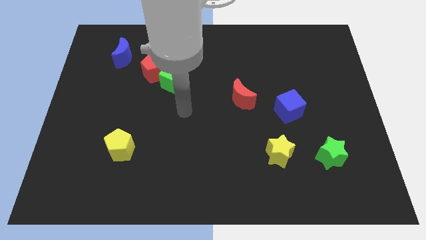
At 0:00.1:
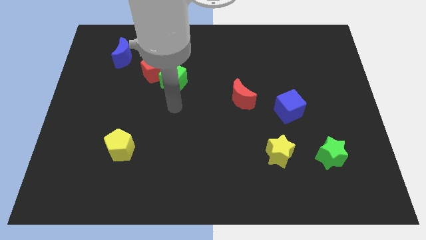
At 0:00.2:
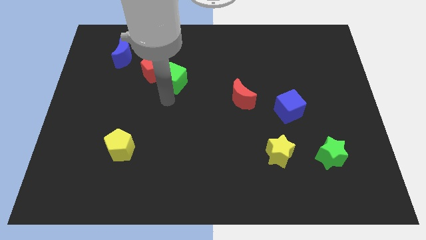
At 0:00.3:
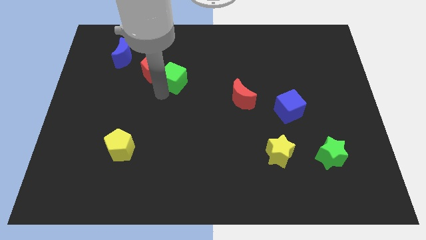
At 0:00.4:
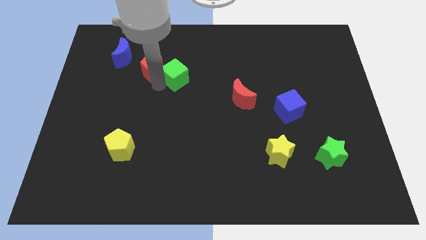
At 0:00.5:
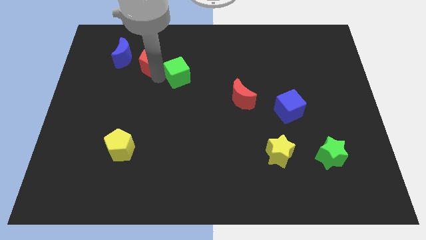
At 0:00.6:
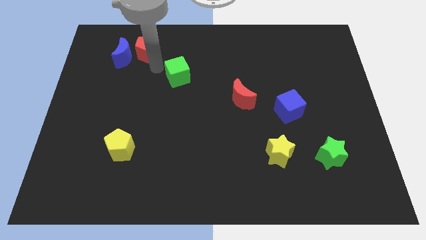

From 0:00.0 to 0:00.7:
move the green cube away from the red pentagon

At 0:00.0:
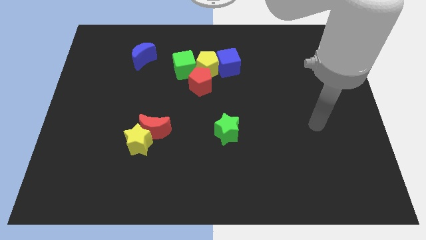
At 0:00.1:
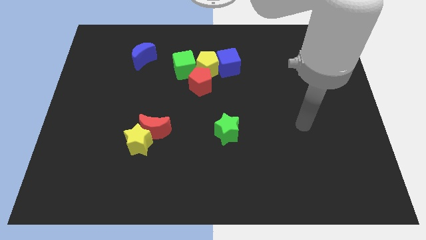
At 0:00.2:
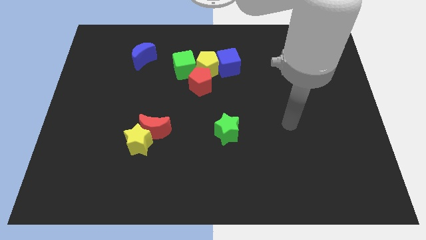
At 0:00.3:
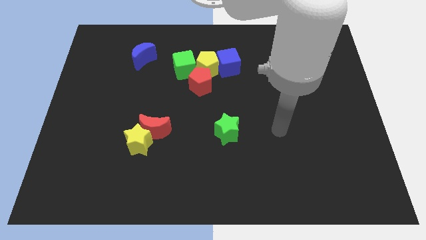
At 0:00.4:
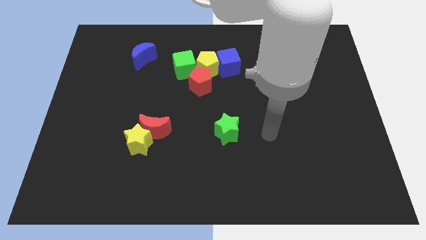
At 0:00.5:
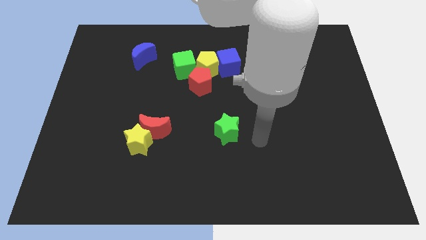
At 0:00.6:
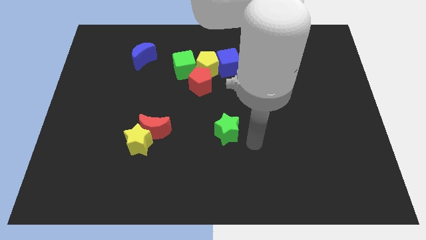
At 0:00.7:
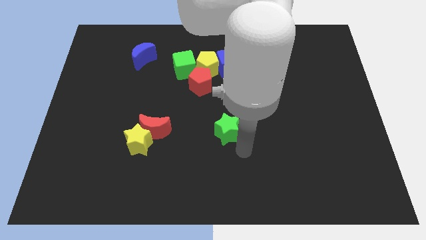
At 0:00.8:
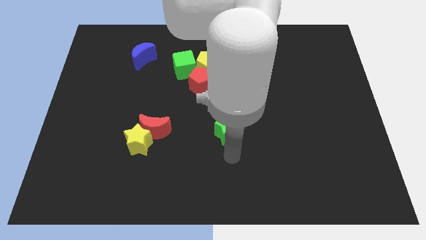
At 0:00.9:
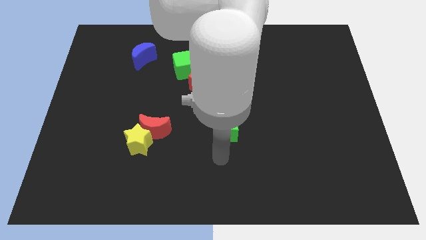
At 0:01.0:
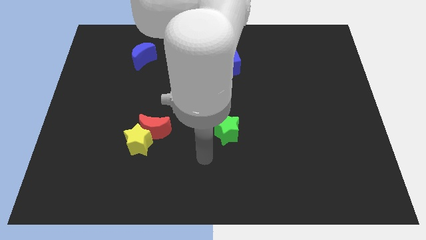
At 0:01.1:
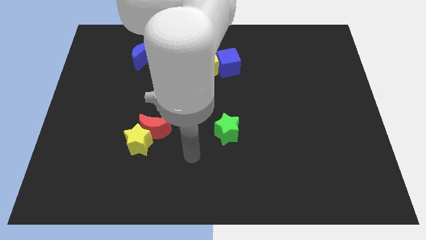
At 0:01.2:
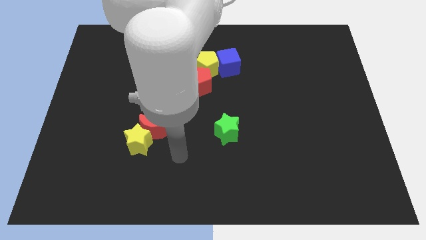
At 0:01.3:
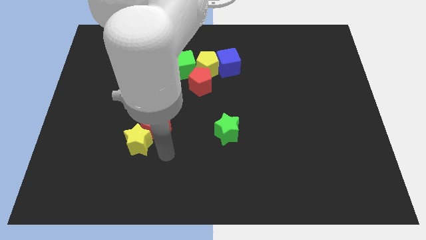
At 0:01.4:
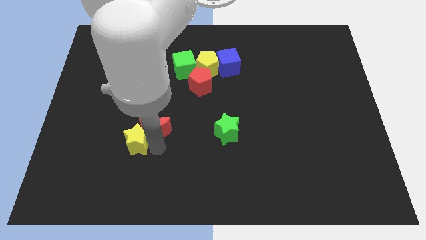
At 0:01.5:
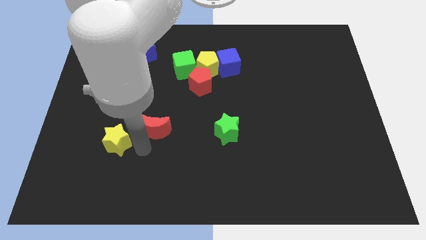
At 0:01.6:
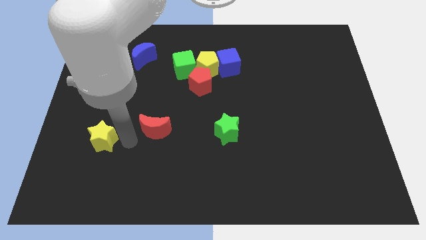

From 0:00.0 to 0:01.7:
separate the red moon from the yellow star

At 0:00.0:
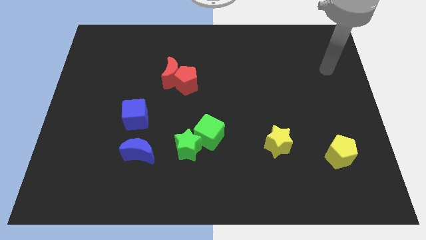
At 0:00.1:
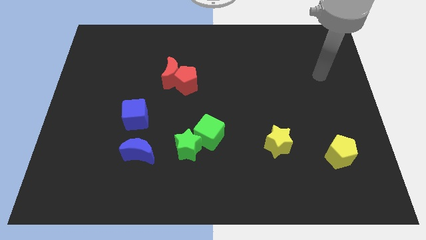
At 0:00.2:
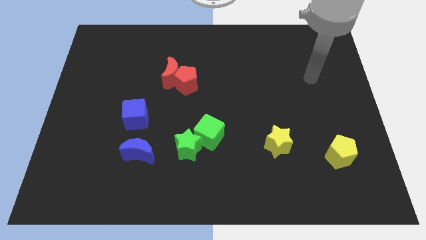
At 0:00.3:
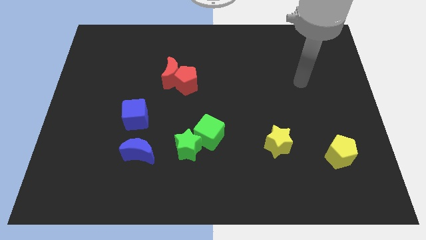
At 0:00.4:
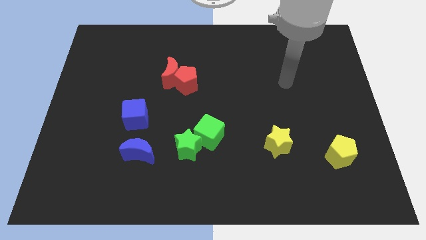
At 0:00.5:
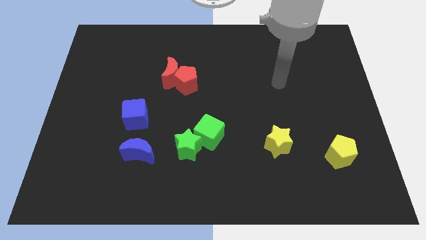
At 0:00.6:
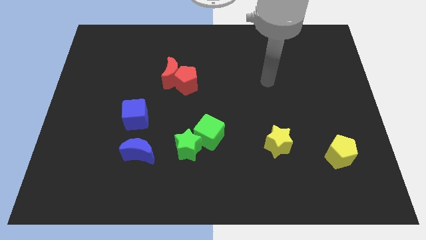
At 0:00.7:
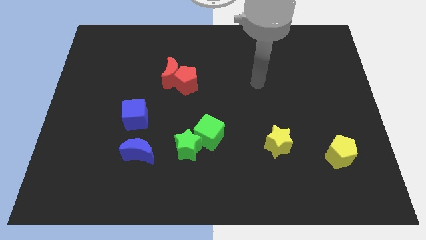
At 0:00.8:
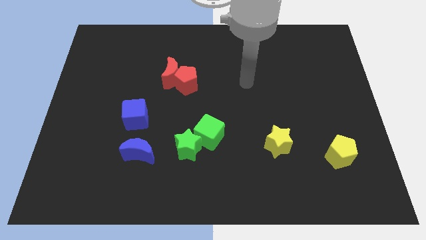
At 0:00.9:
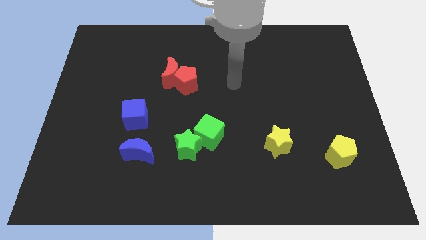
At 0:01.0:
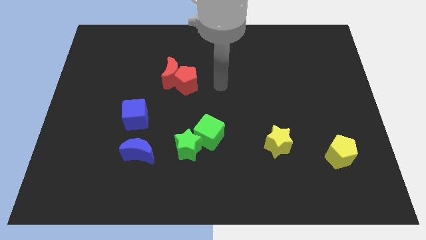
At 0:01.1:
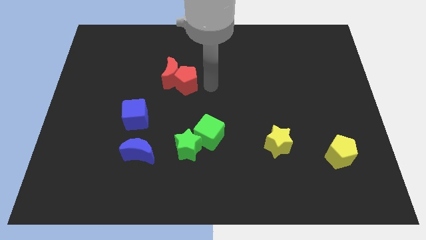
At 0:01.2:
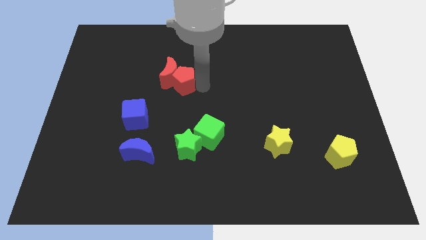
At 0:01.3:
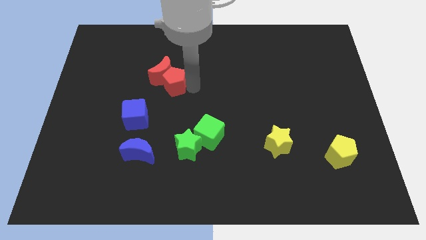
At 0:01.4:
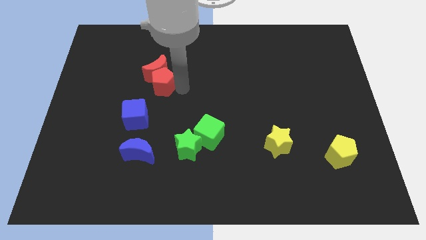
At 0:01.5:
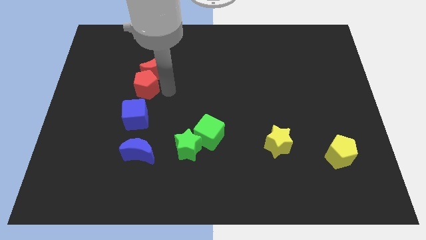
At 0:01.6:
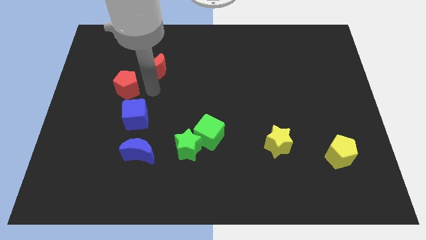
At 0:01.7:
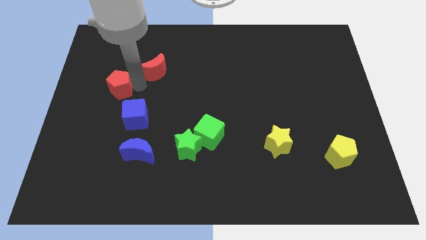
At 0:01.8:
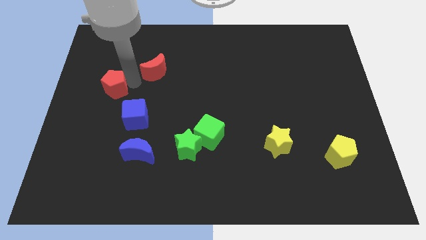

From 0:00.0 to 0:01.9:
move the red moon away from the red pentagon

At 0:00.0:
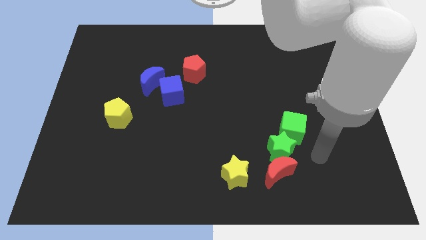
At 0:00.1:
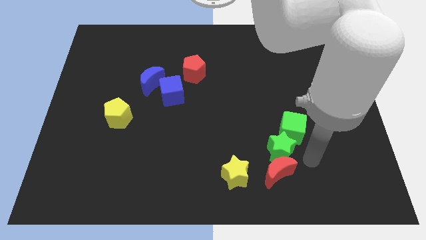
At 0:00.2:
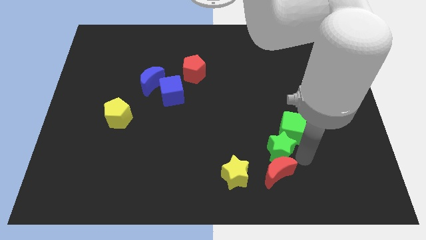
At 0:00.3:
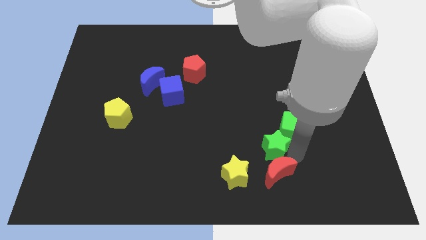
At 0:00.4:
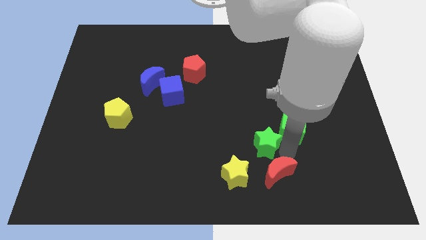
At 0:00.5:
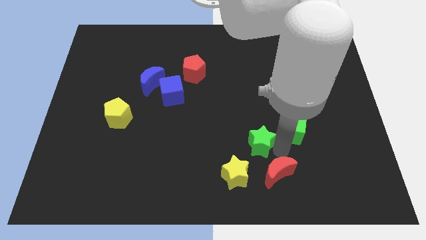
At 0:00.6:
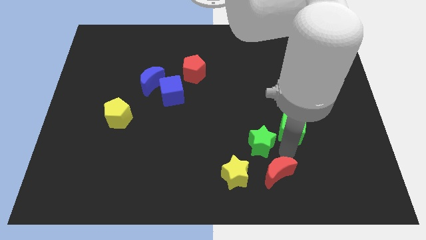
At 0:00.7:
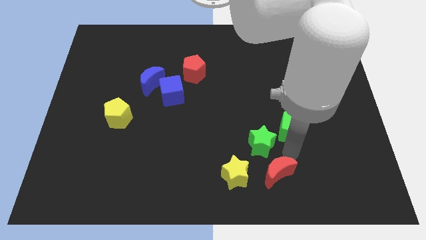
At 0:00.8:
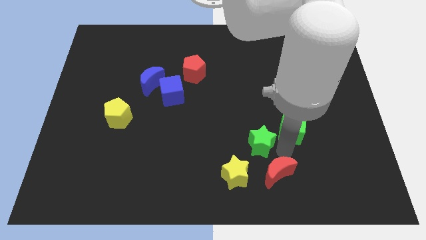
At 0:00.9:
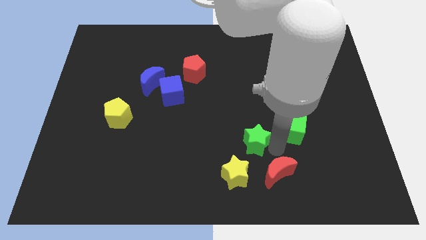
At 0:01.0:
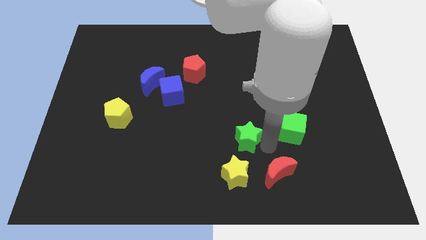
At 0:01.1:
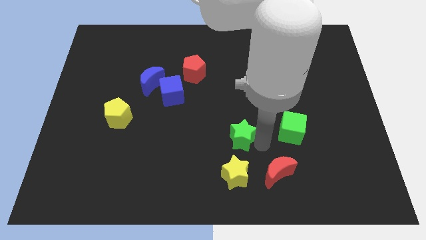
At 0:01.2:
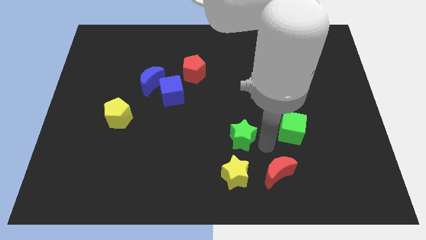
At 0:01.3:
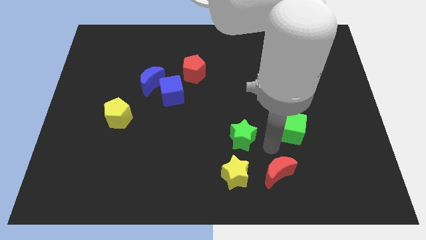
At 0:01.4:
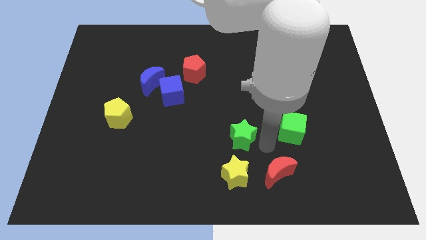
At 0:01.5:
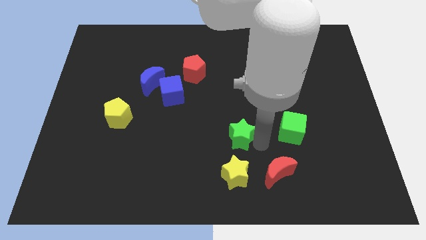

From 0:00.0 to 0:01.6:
move the green star away from the red moon and green cube

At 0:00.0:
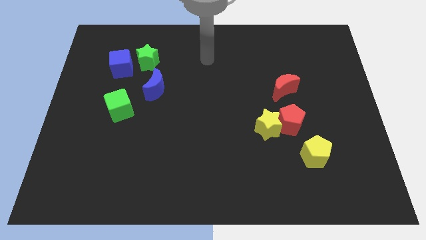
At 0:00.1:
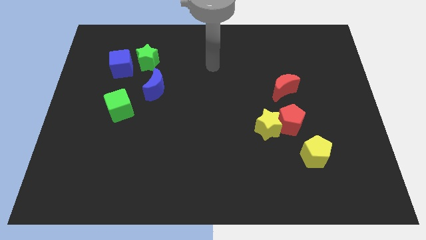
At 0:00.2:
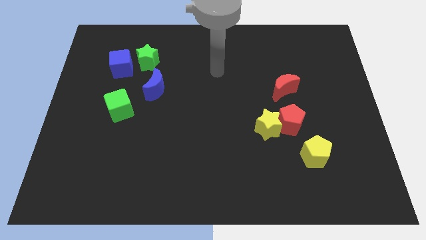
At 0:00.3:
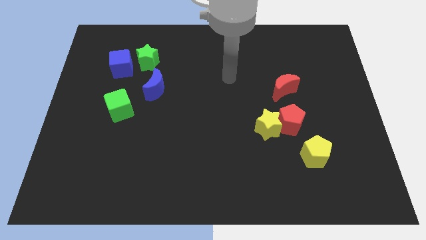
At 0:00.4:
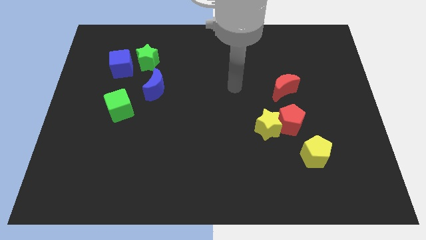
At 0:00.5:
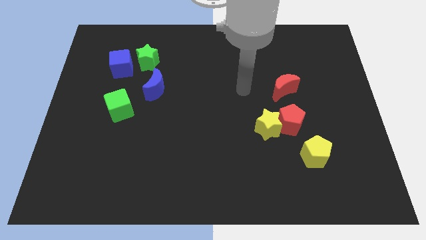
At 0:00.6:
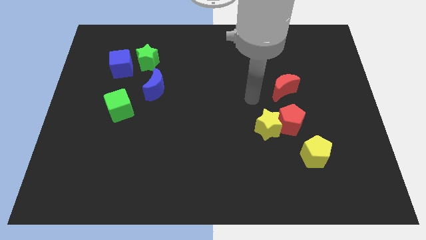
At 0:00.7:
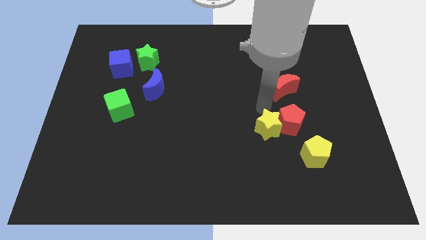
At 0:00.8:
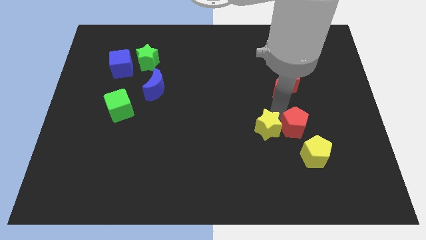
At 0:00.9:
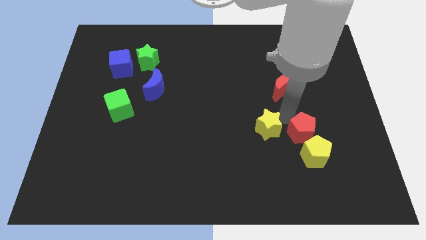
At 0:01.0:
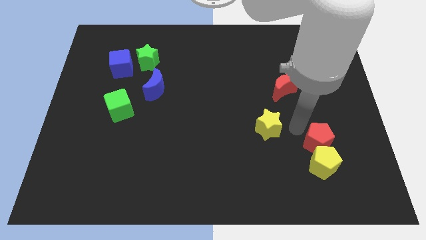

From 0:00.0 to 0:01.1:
move the yellow star away from the red pentagon

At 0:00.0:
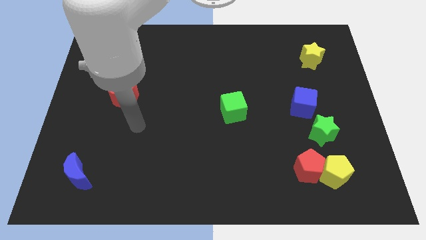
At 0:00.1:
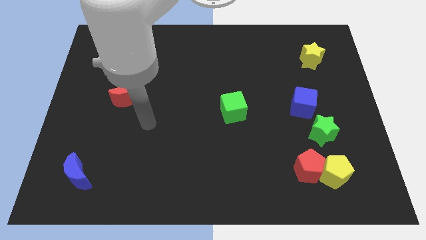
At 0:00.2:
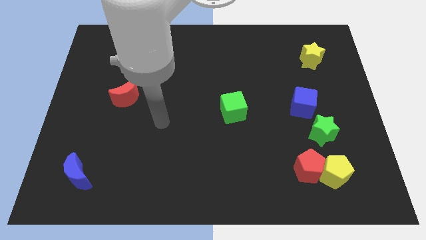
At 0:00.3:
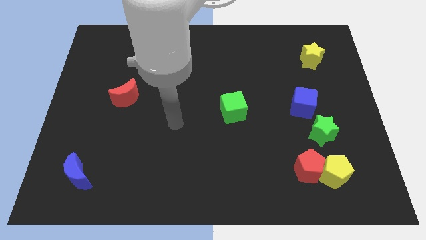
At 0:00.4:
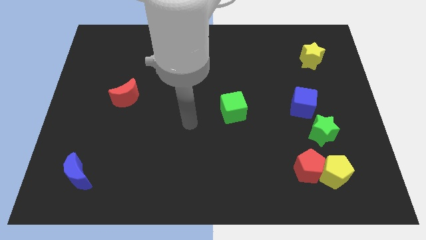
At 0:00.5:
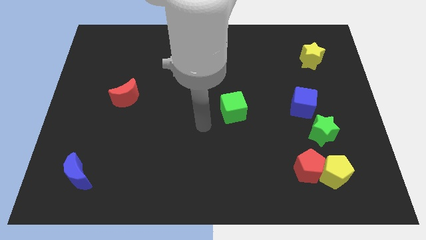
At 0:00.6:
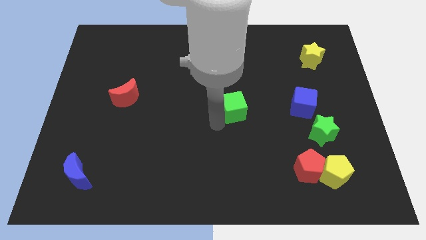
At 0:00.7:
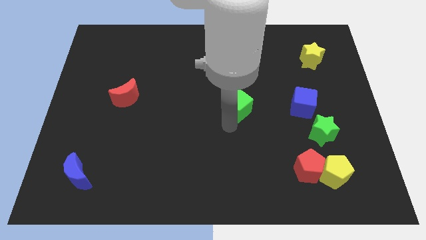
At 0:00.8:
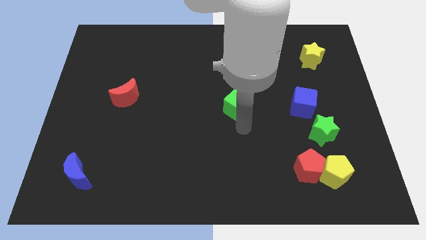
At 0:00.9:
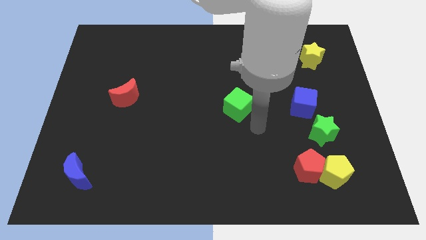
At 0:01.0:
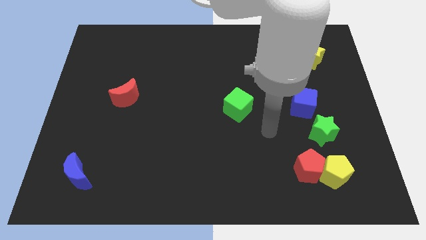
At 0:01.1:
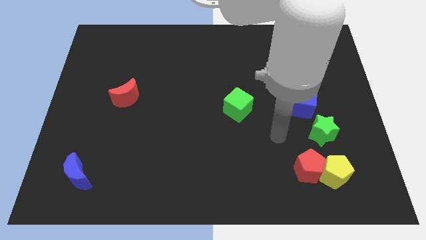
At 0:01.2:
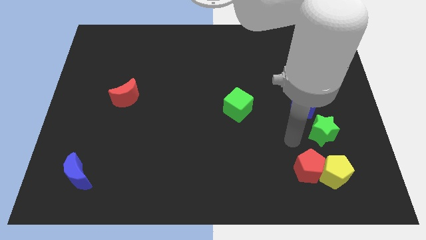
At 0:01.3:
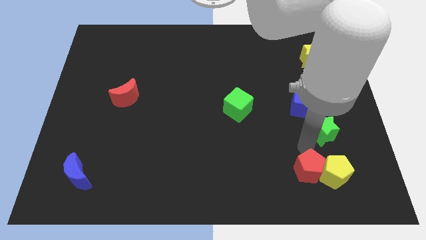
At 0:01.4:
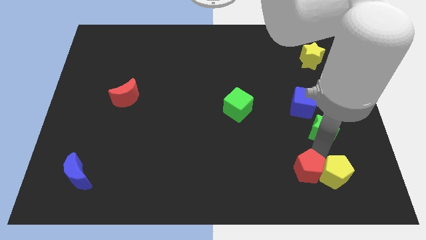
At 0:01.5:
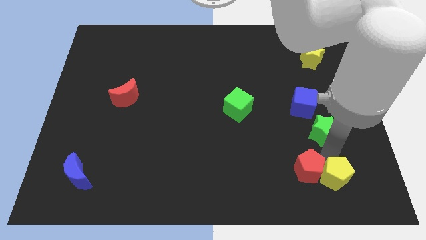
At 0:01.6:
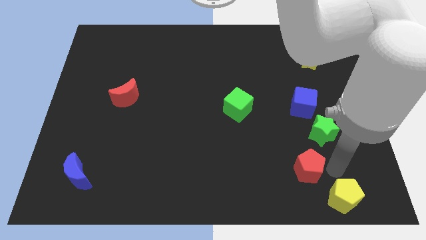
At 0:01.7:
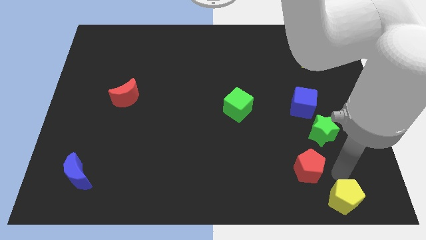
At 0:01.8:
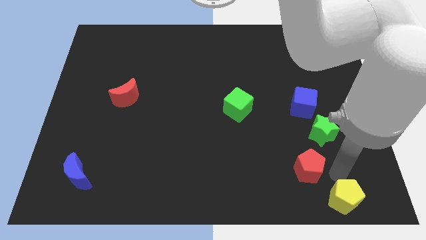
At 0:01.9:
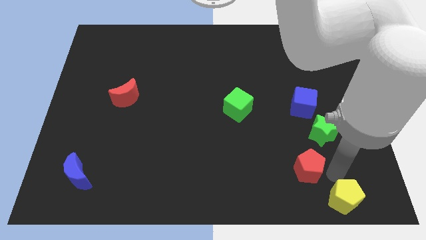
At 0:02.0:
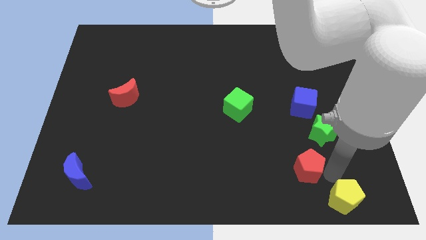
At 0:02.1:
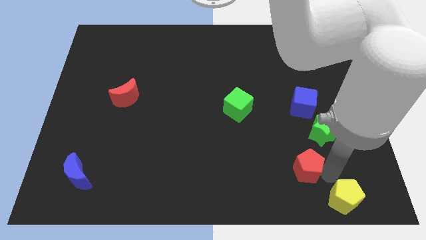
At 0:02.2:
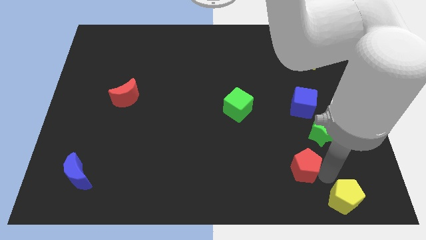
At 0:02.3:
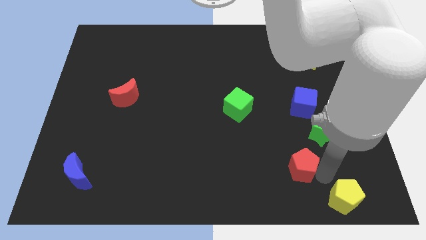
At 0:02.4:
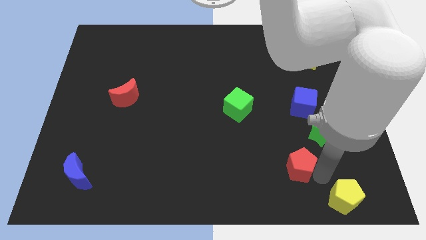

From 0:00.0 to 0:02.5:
pull the red pentagon apart from the yellow pentagon

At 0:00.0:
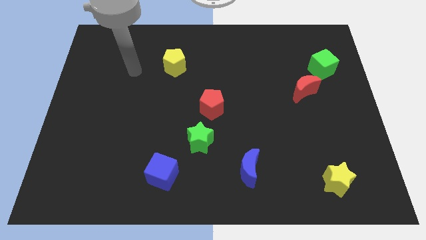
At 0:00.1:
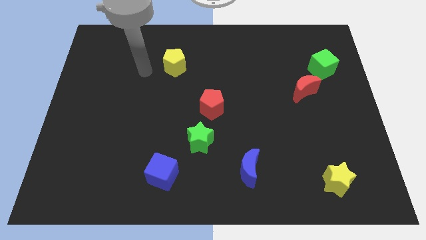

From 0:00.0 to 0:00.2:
pull the red moon apart from the green cube
